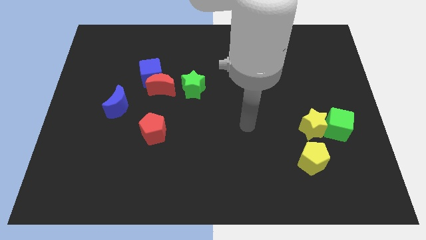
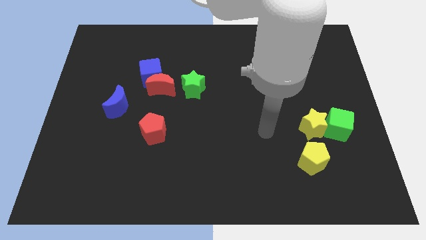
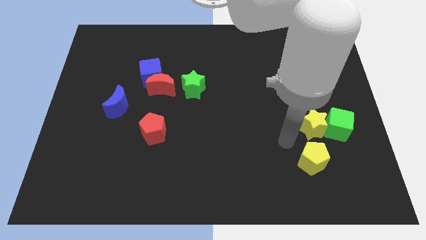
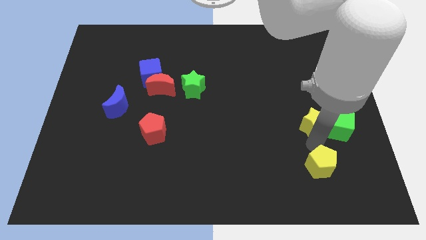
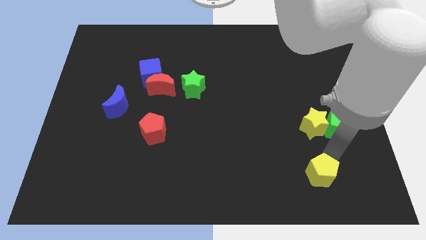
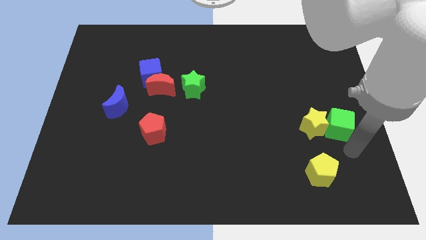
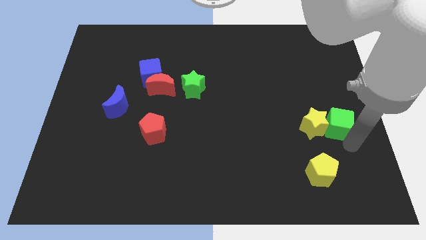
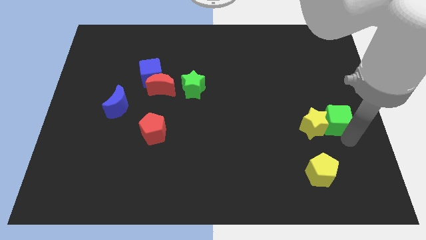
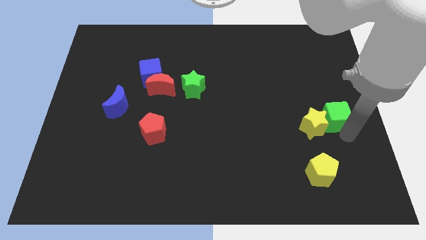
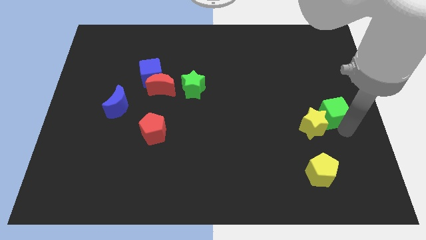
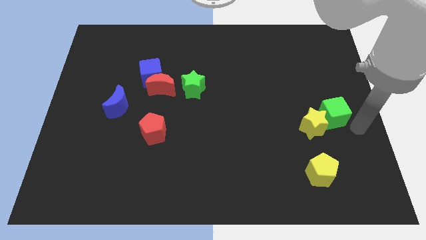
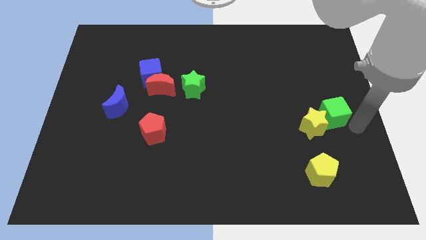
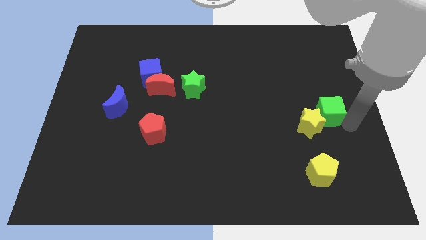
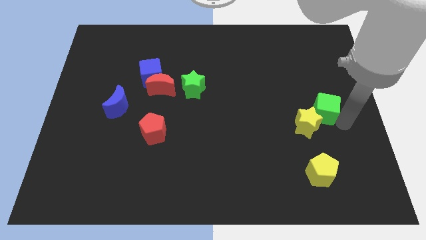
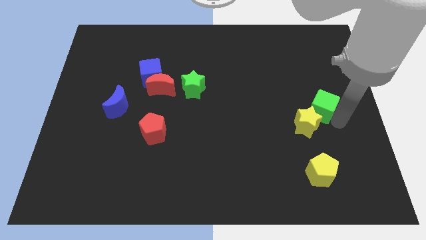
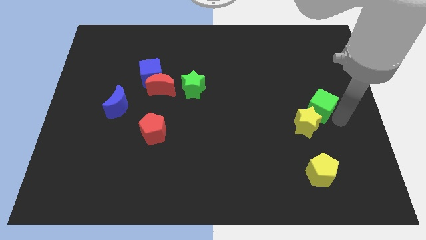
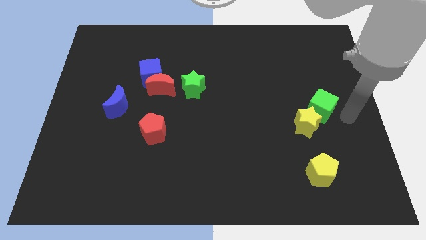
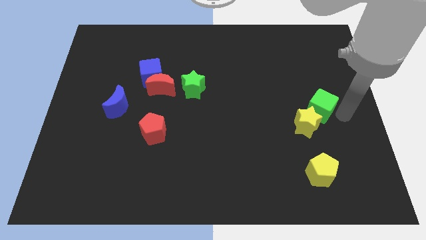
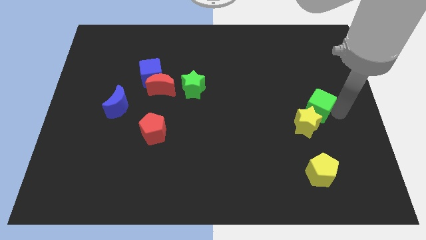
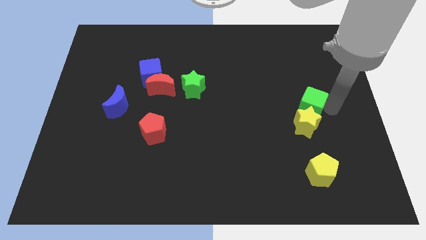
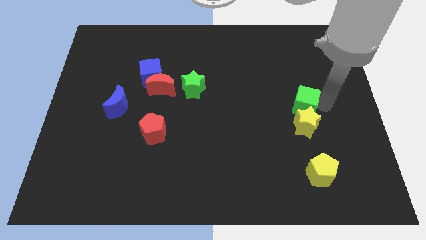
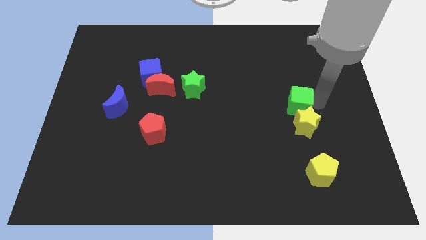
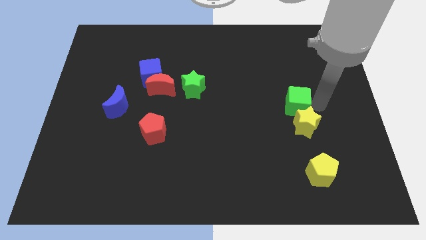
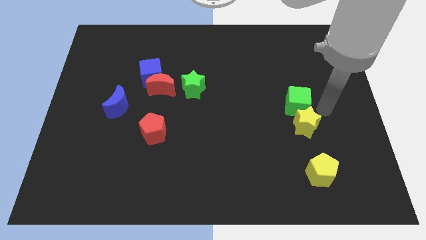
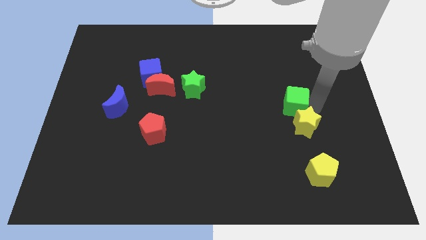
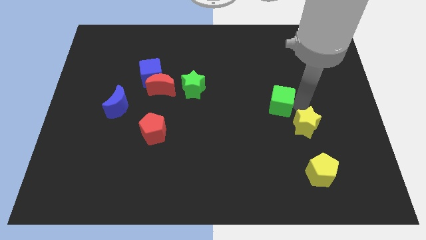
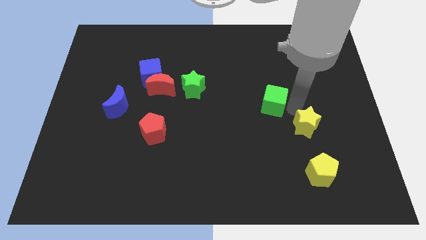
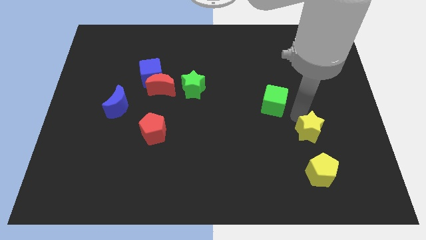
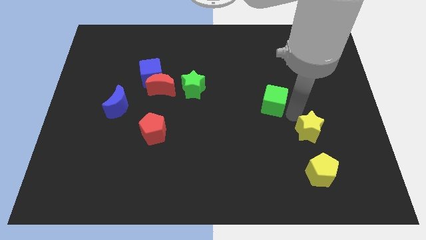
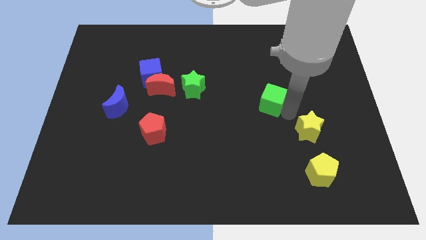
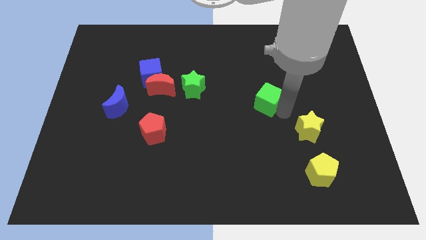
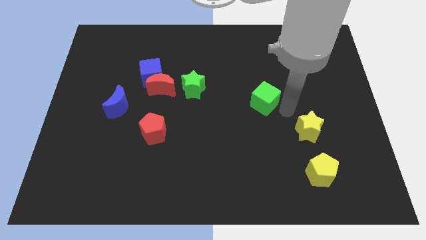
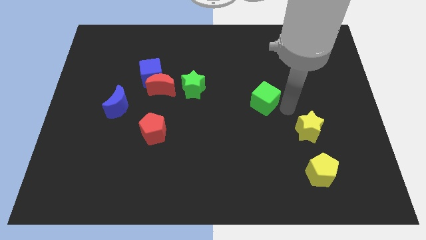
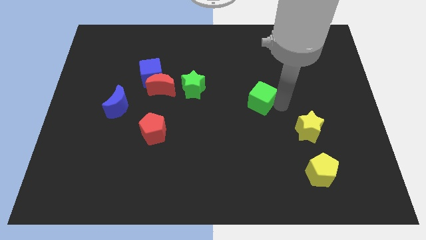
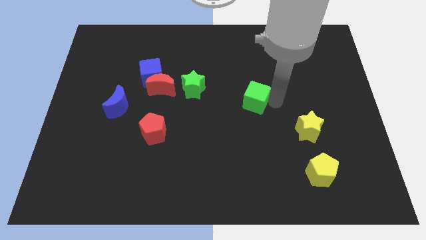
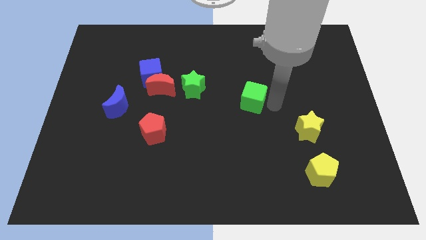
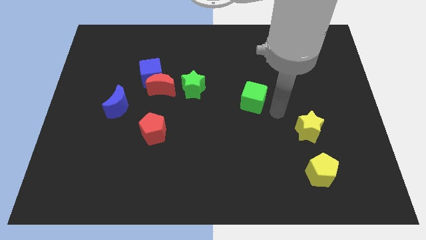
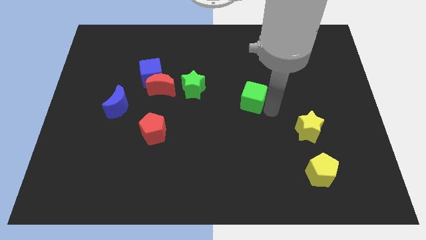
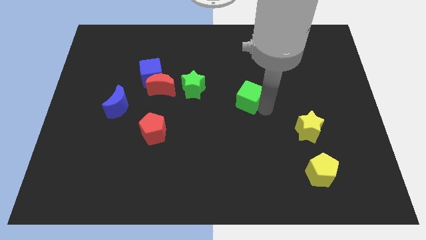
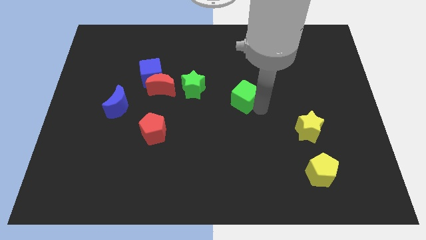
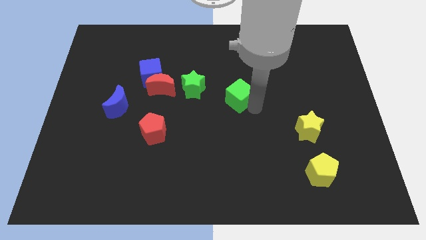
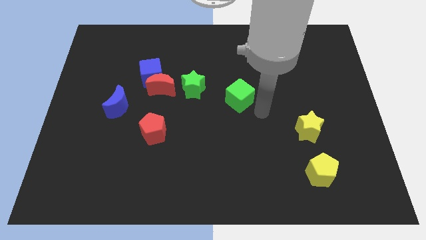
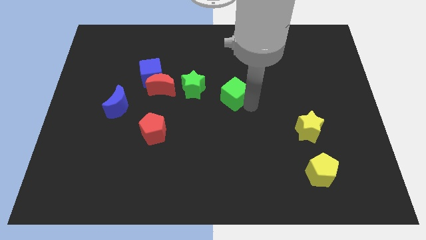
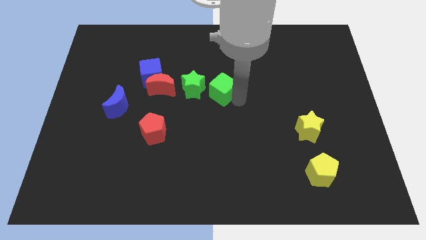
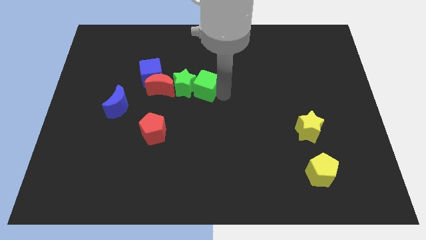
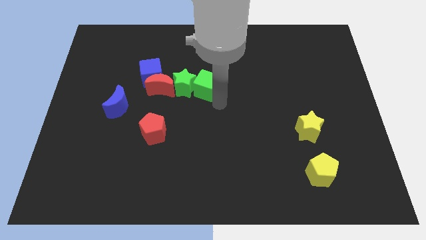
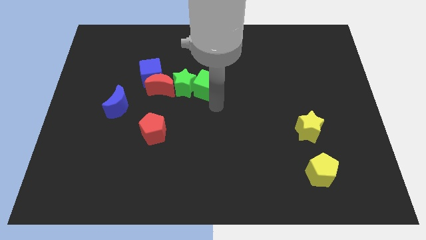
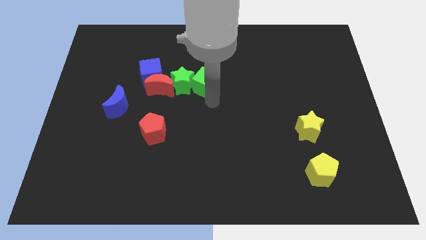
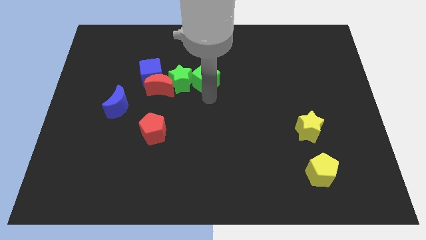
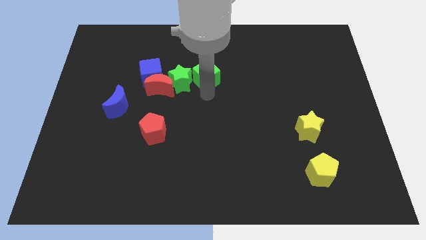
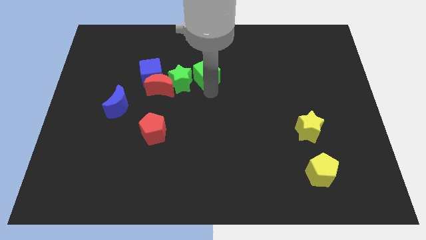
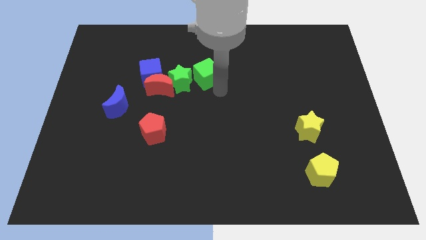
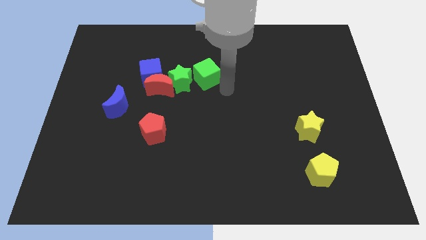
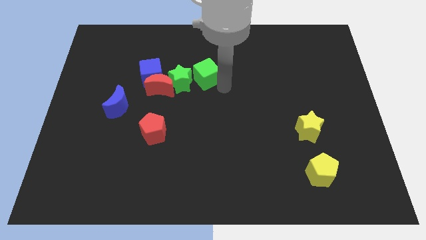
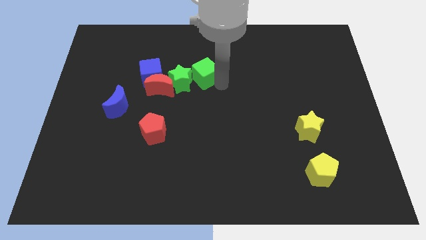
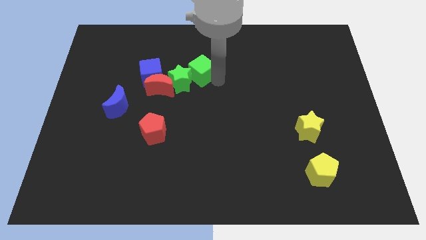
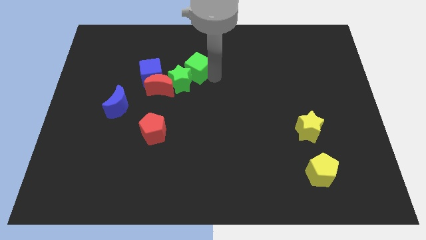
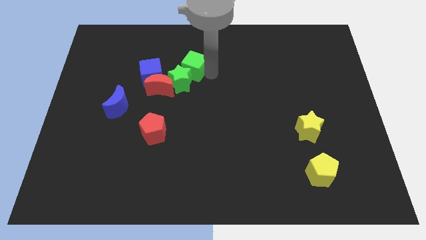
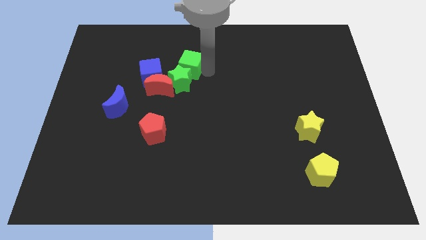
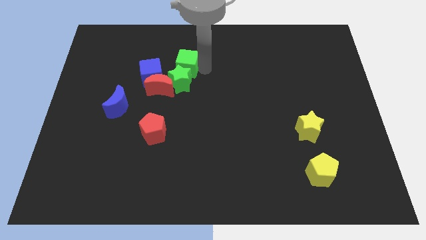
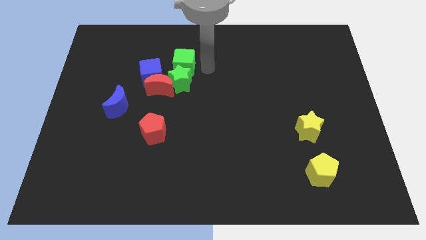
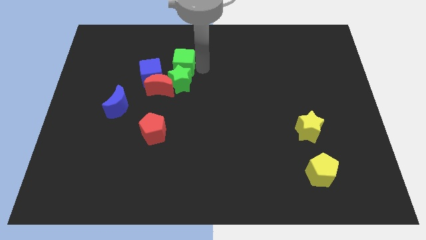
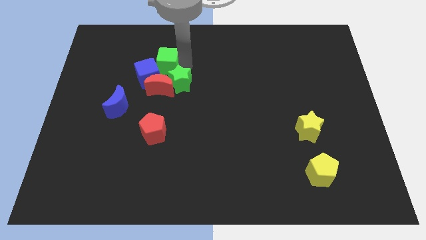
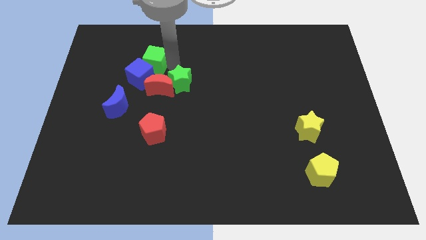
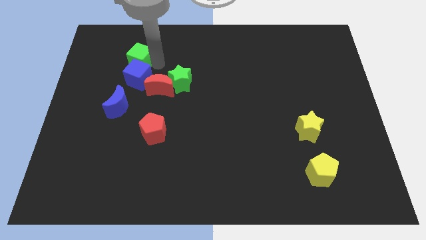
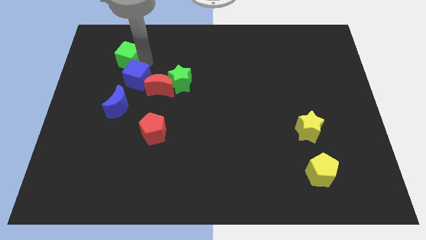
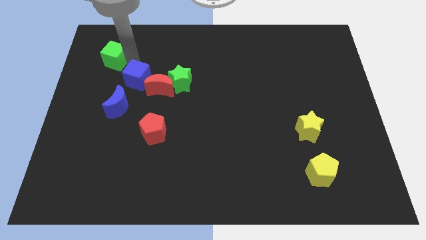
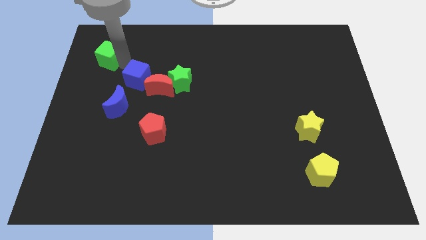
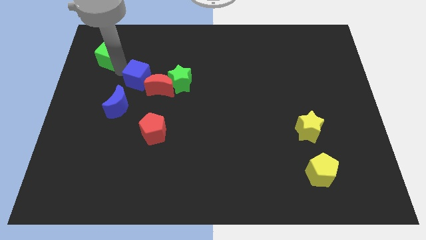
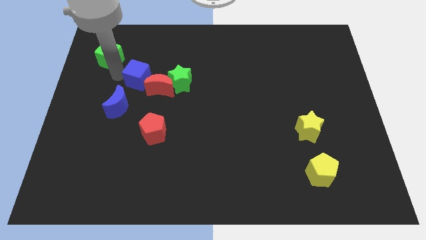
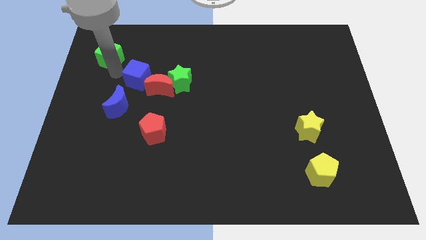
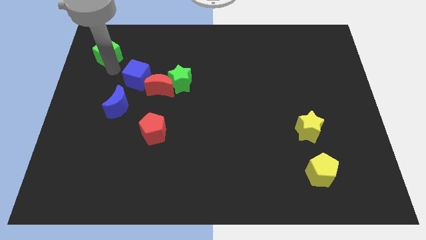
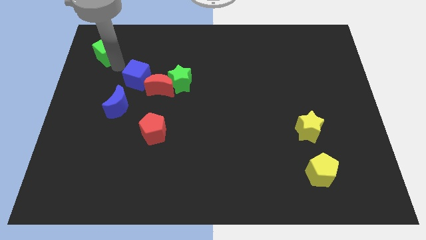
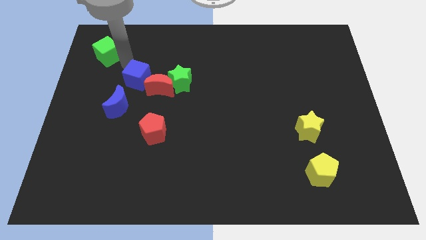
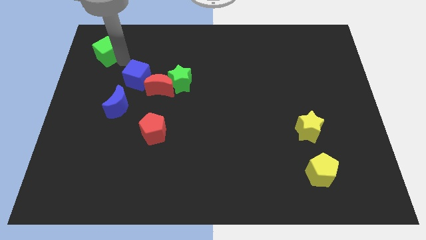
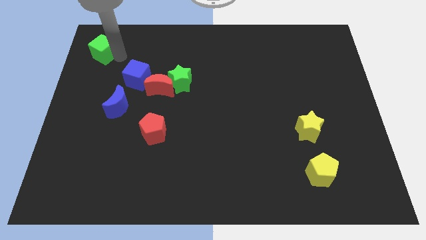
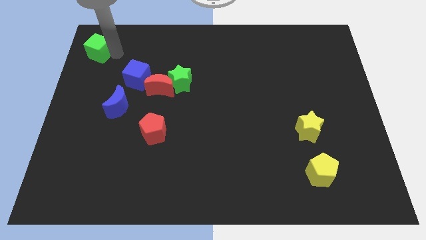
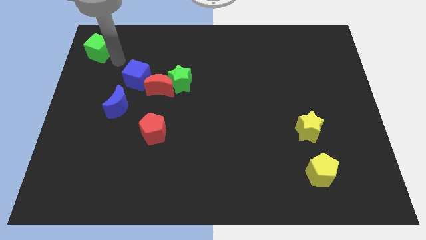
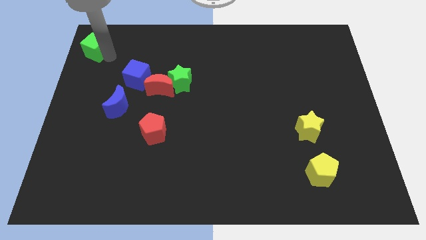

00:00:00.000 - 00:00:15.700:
put the green cube to the upper left corner
